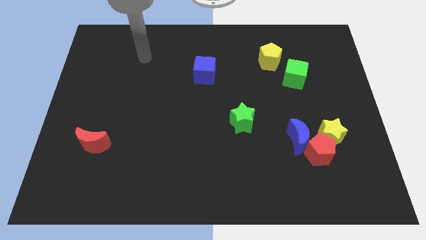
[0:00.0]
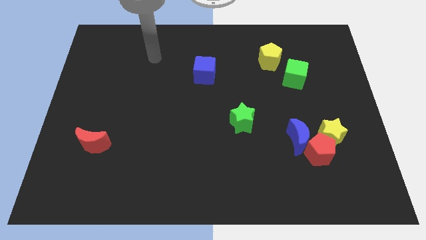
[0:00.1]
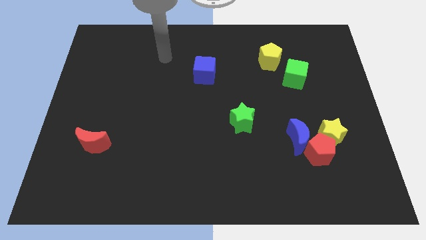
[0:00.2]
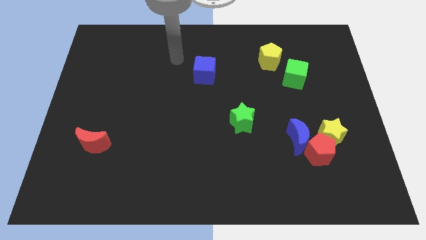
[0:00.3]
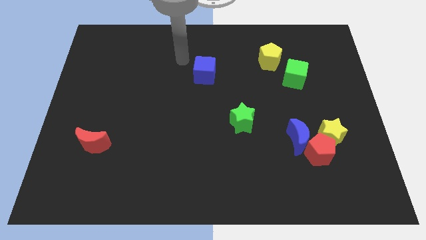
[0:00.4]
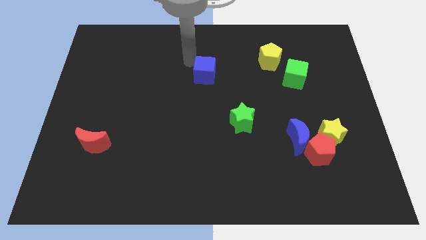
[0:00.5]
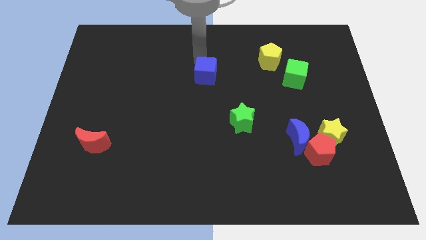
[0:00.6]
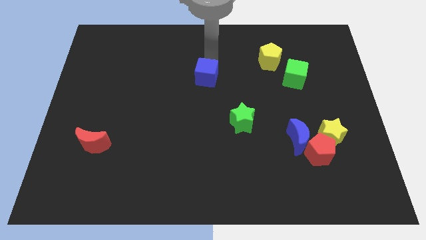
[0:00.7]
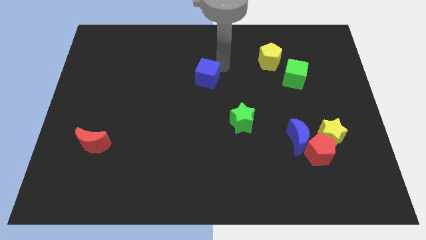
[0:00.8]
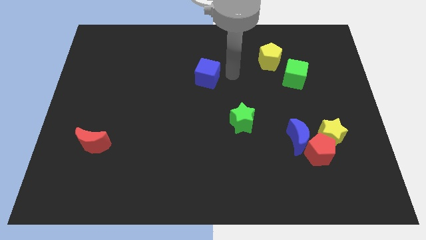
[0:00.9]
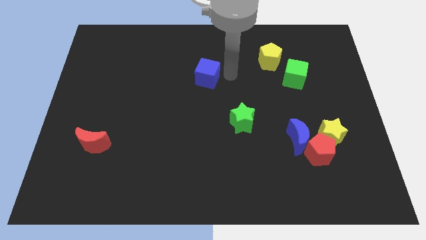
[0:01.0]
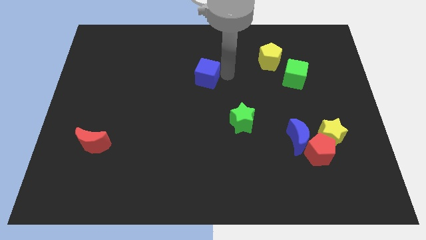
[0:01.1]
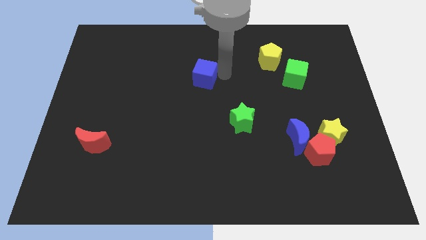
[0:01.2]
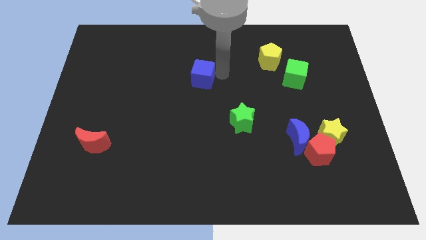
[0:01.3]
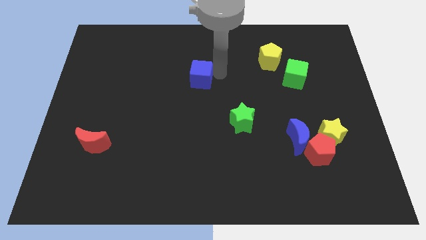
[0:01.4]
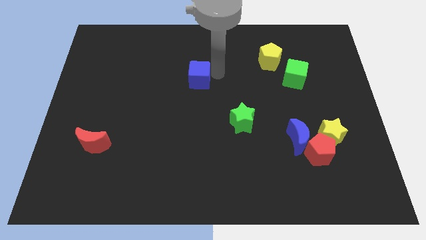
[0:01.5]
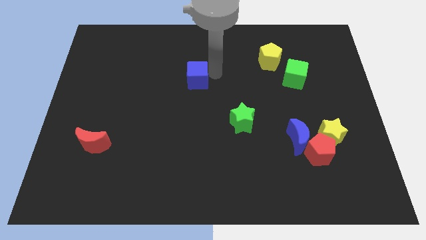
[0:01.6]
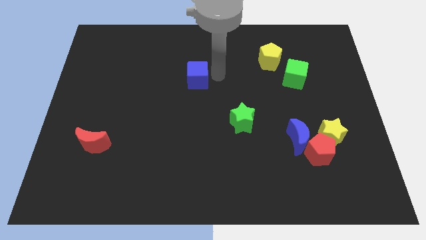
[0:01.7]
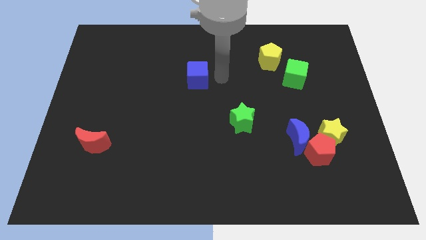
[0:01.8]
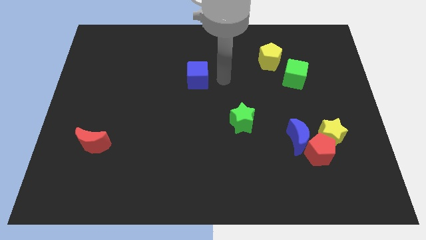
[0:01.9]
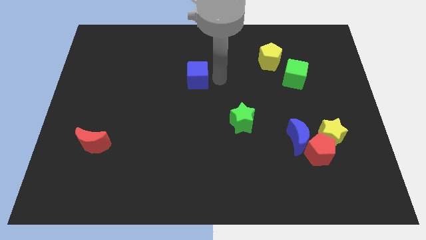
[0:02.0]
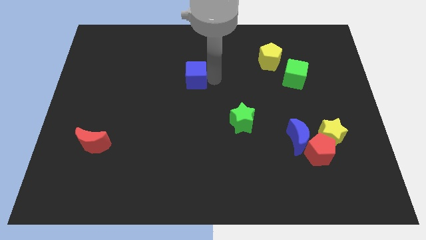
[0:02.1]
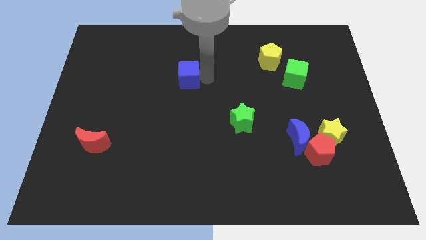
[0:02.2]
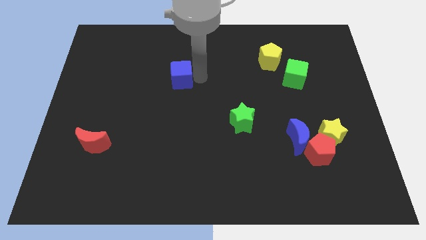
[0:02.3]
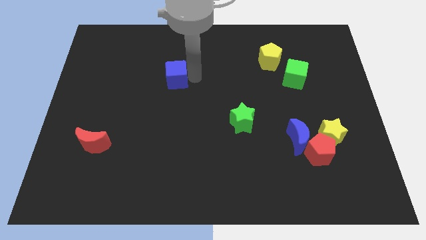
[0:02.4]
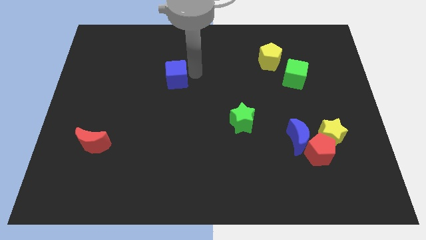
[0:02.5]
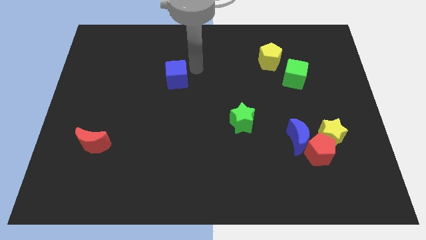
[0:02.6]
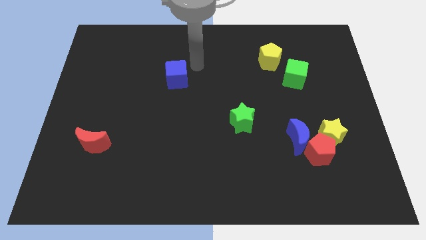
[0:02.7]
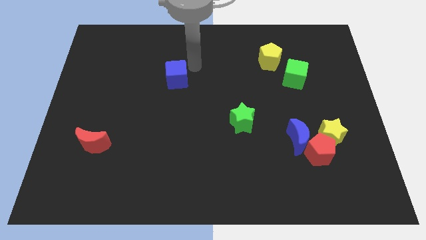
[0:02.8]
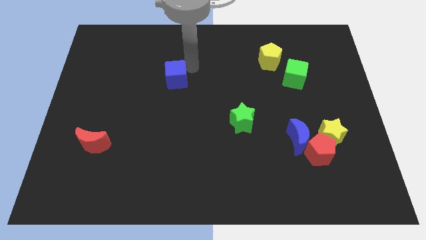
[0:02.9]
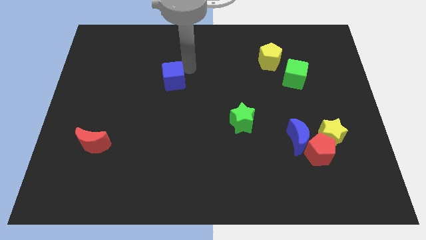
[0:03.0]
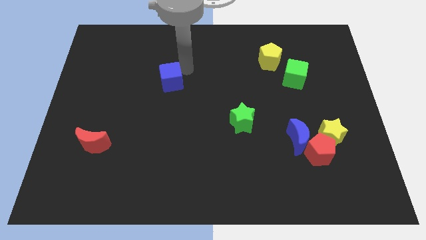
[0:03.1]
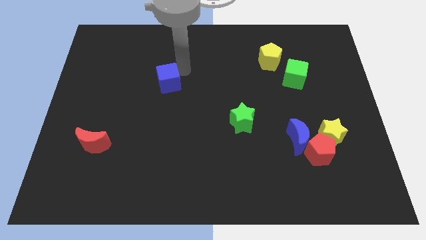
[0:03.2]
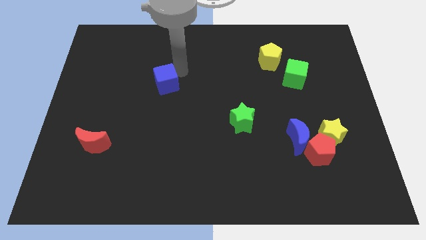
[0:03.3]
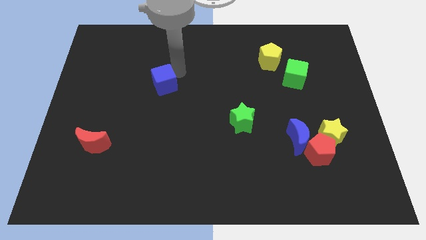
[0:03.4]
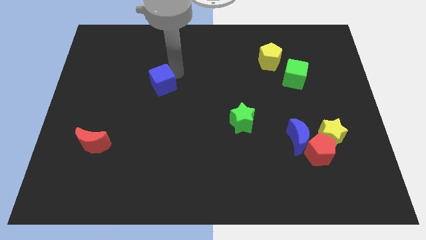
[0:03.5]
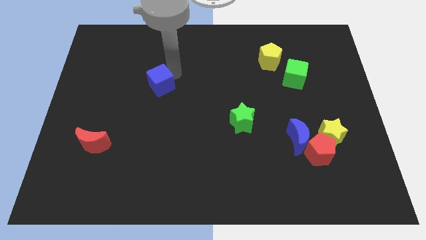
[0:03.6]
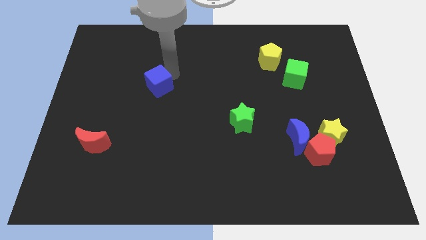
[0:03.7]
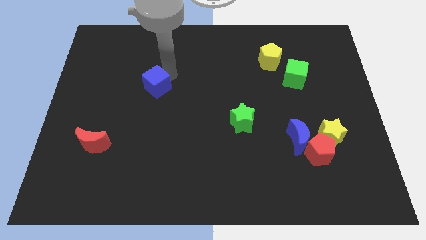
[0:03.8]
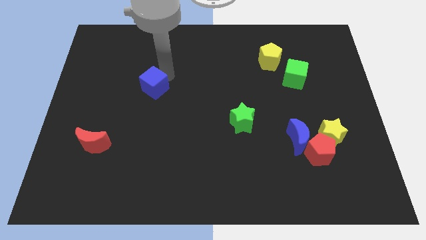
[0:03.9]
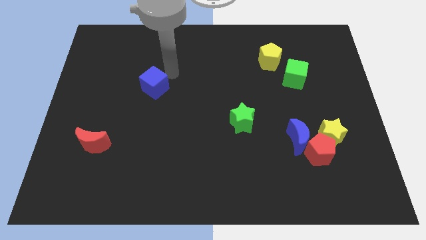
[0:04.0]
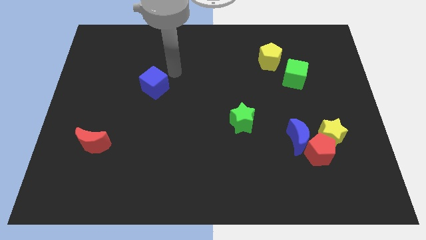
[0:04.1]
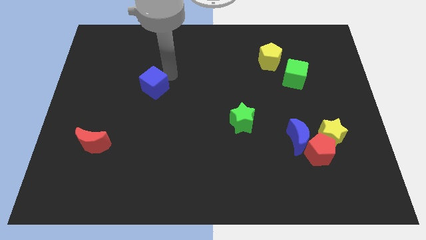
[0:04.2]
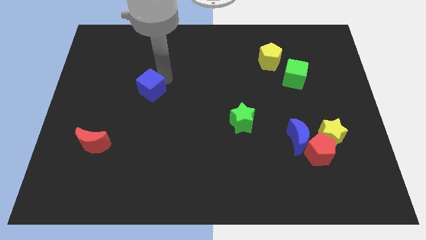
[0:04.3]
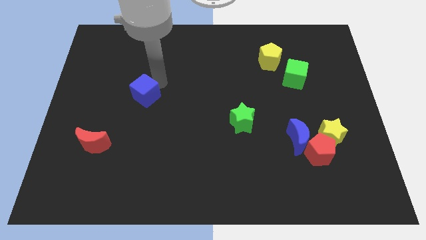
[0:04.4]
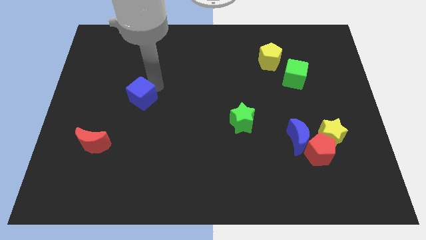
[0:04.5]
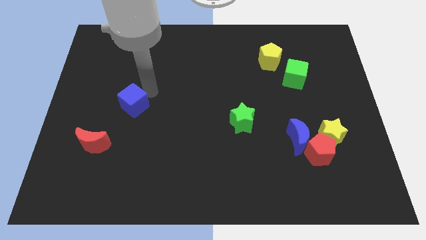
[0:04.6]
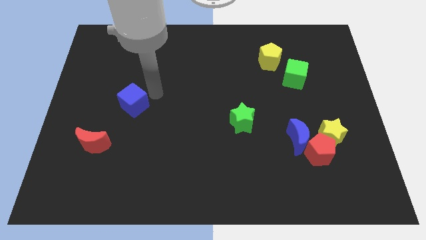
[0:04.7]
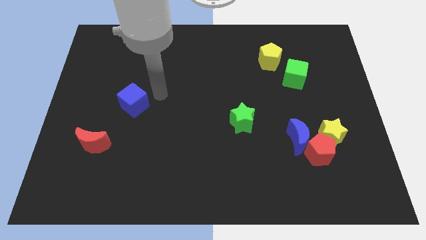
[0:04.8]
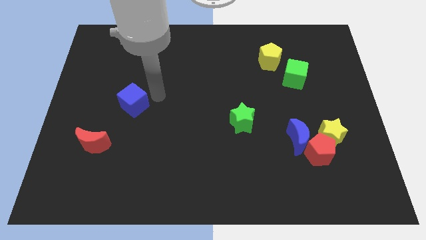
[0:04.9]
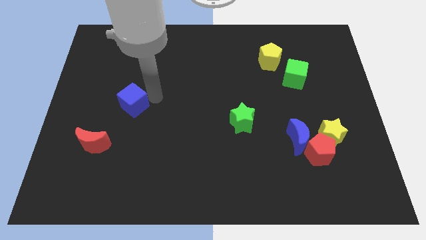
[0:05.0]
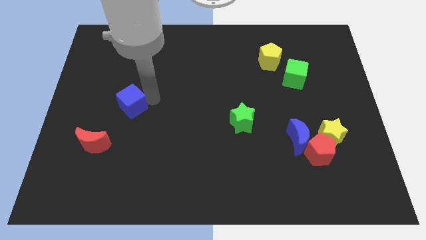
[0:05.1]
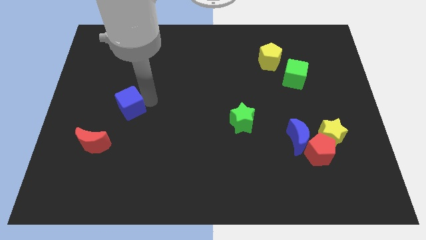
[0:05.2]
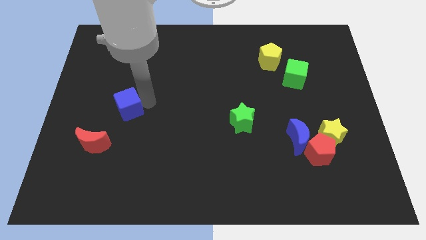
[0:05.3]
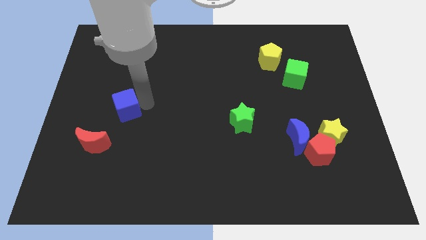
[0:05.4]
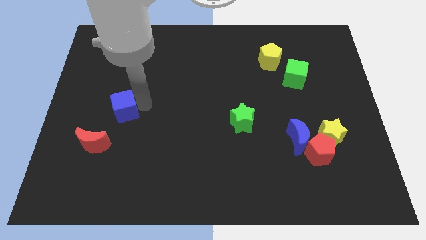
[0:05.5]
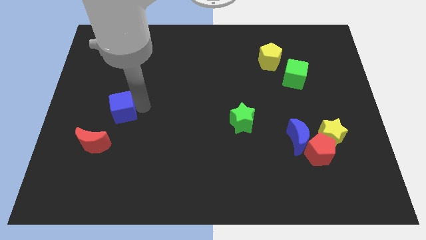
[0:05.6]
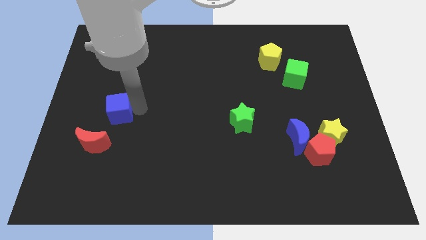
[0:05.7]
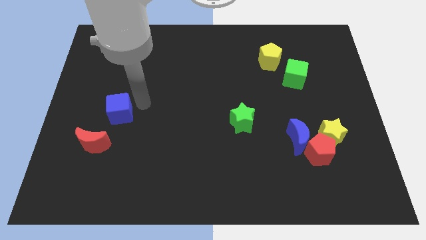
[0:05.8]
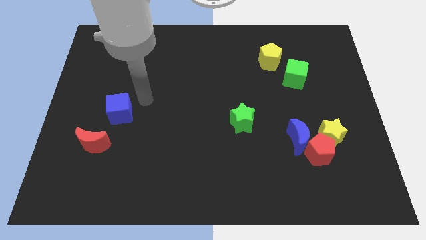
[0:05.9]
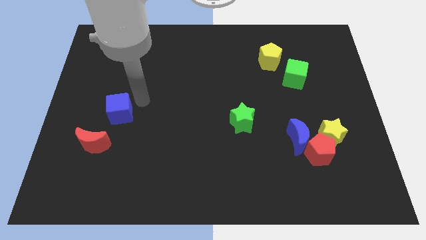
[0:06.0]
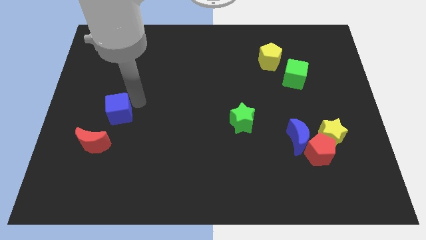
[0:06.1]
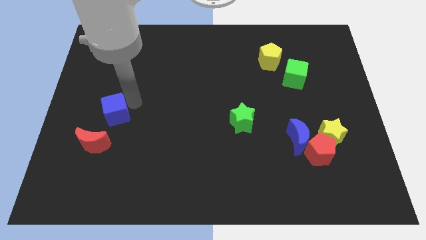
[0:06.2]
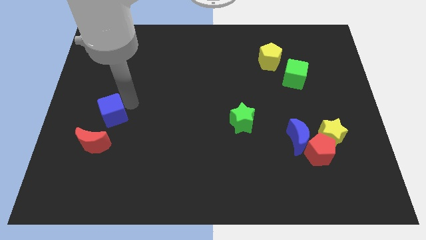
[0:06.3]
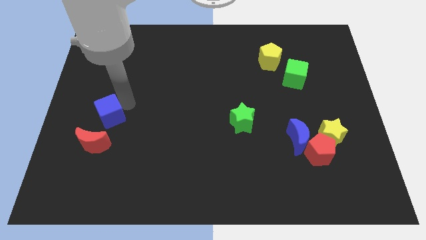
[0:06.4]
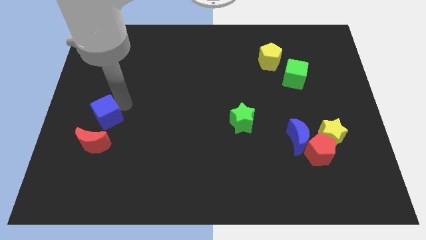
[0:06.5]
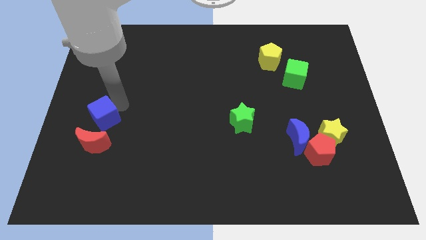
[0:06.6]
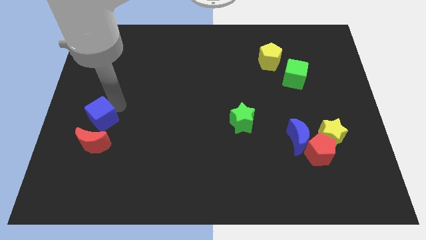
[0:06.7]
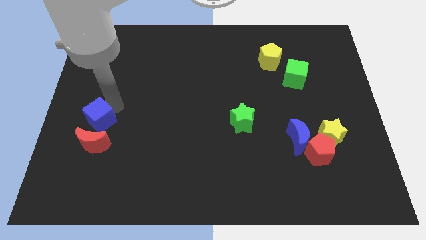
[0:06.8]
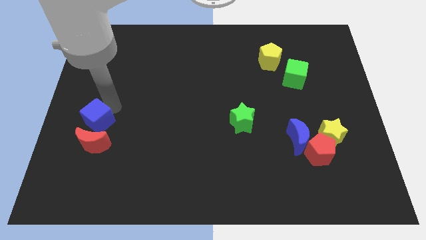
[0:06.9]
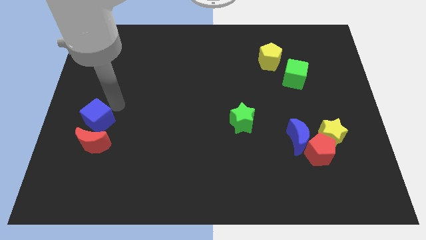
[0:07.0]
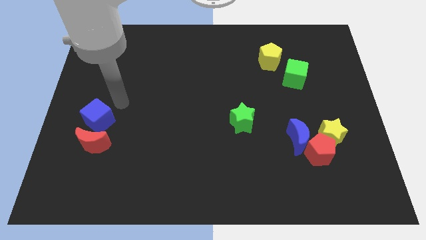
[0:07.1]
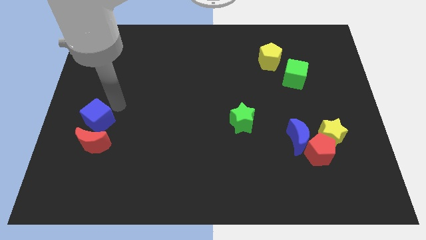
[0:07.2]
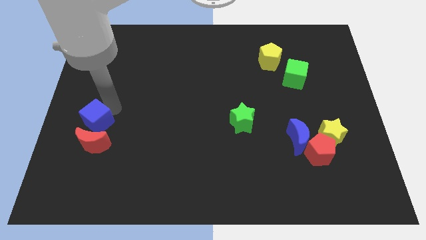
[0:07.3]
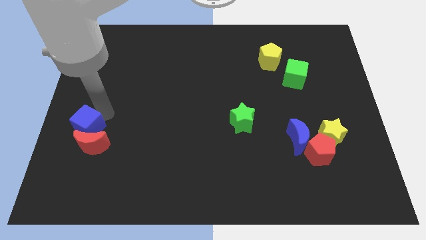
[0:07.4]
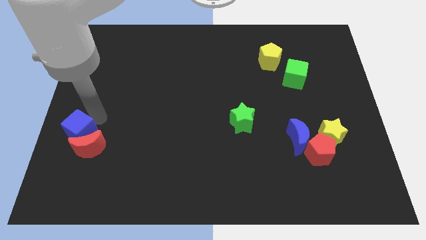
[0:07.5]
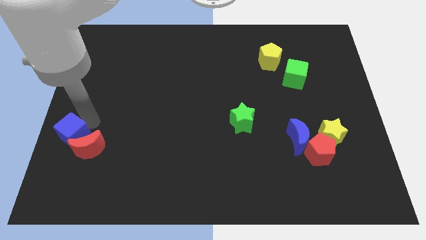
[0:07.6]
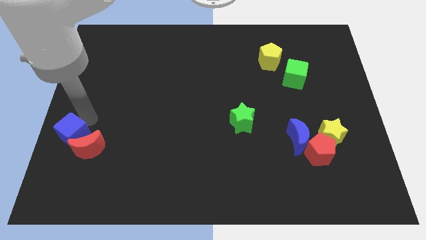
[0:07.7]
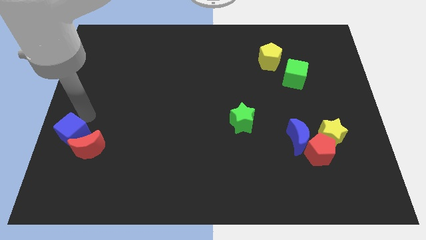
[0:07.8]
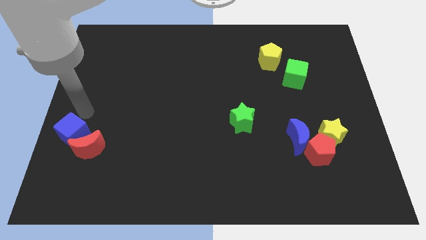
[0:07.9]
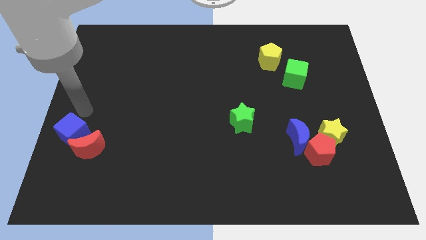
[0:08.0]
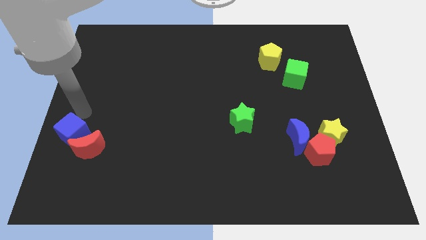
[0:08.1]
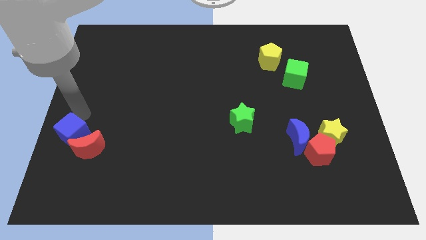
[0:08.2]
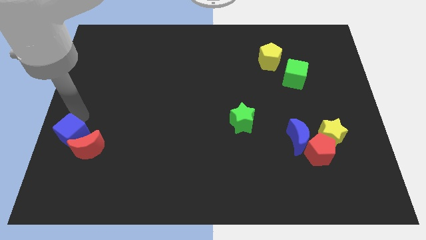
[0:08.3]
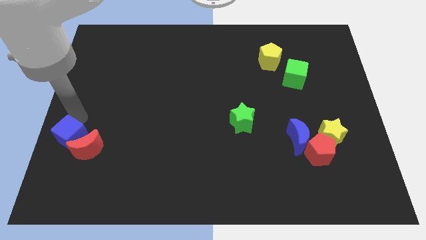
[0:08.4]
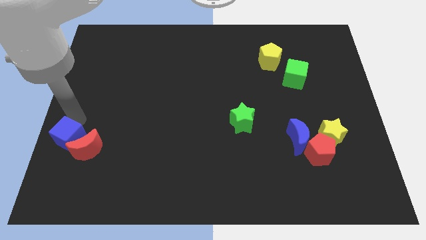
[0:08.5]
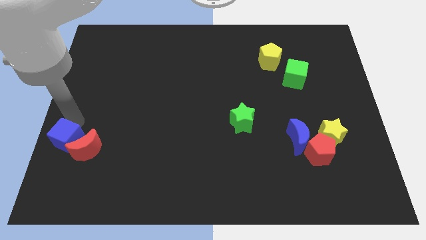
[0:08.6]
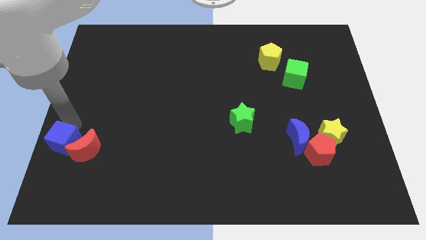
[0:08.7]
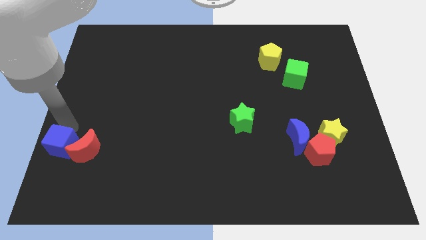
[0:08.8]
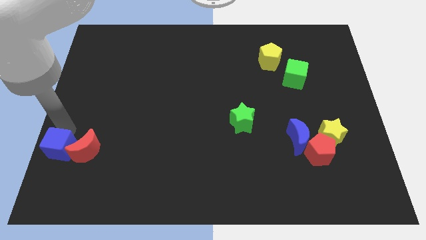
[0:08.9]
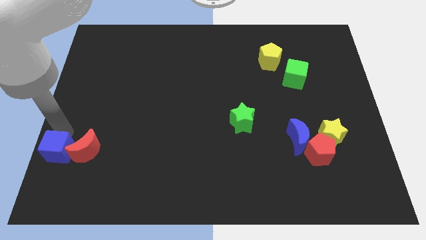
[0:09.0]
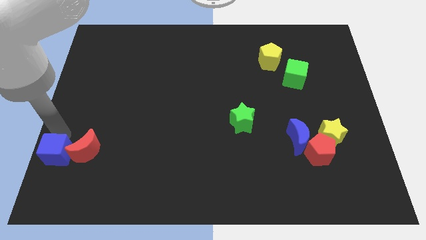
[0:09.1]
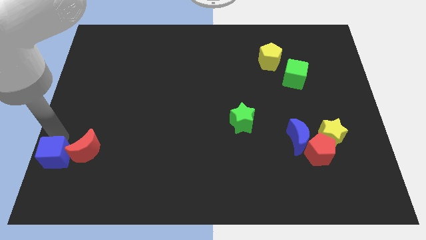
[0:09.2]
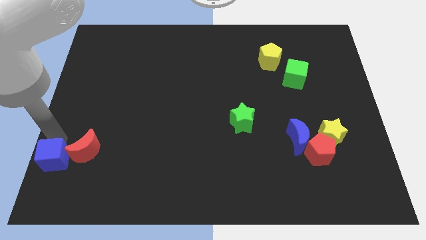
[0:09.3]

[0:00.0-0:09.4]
slide the blue cube to the bottom left of the board
